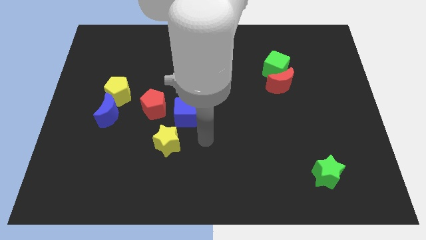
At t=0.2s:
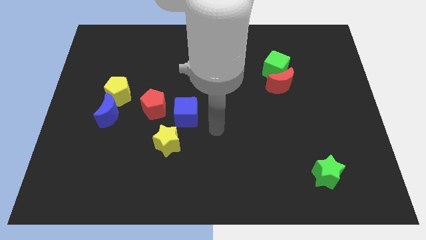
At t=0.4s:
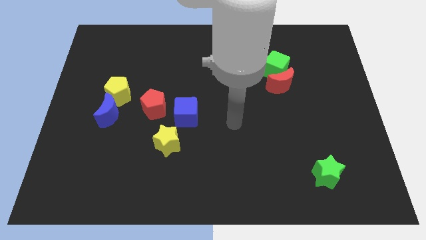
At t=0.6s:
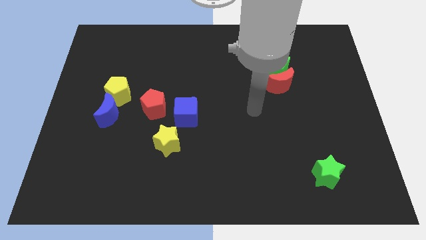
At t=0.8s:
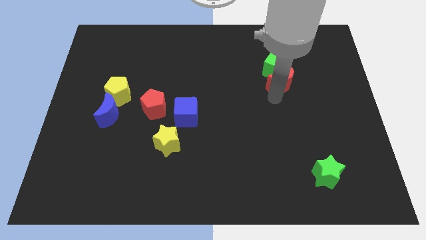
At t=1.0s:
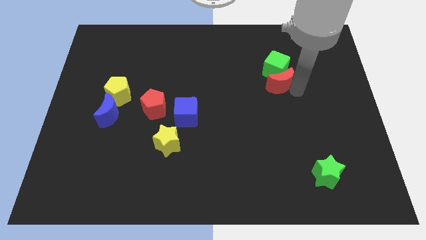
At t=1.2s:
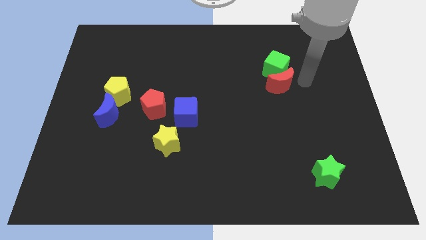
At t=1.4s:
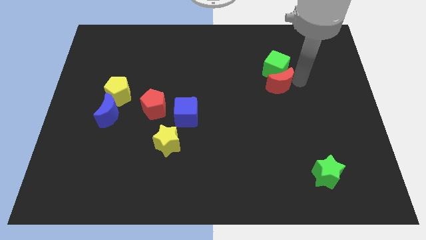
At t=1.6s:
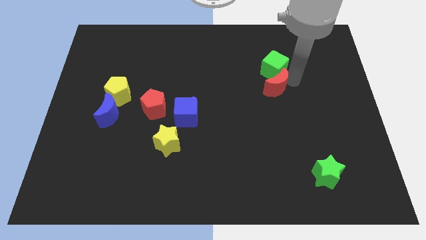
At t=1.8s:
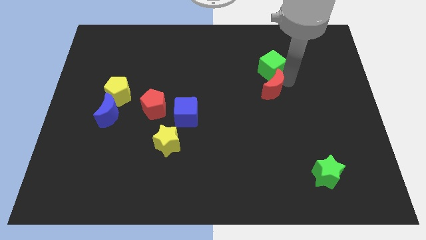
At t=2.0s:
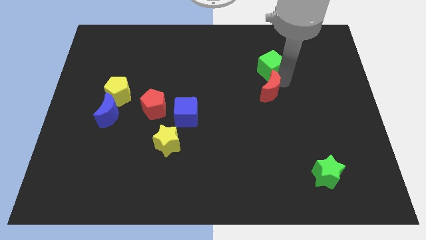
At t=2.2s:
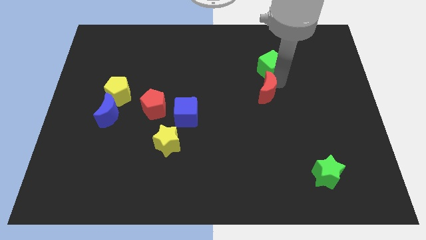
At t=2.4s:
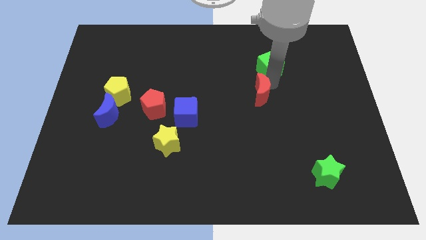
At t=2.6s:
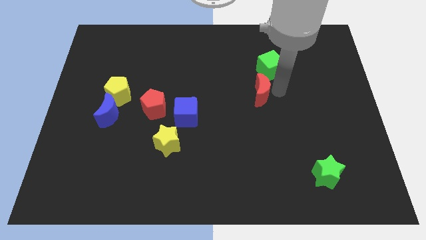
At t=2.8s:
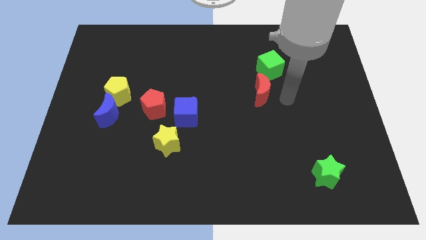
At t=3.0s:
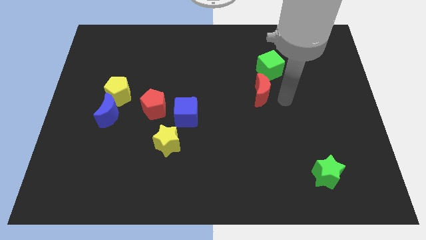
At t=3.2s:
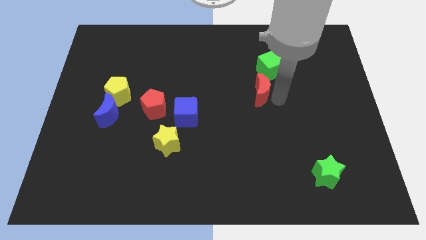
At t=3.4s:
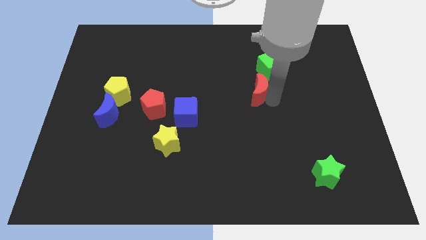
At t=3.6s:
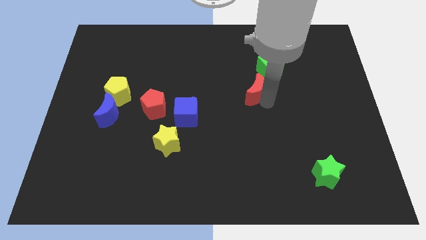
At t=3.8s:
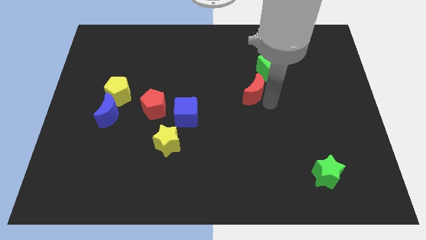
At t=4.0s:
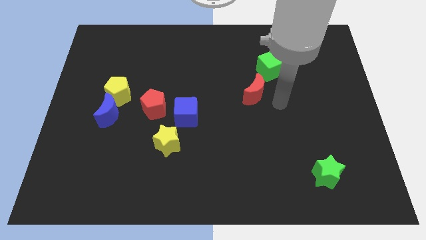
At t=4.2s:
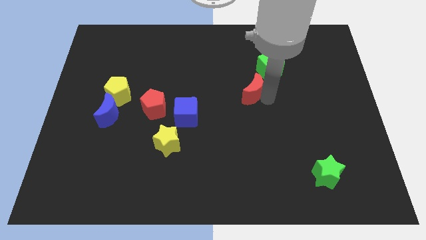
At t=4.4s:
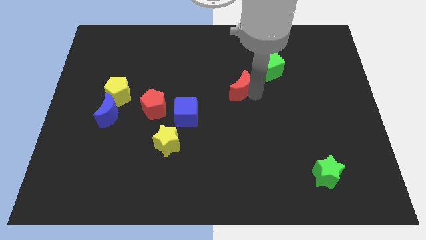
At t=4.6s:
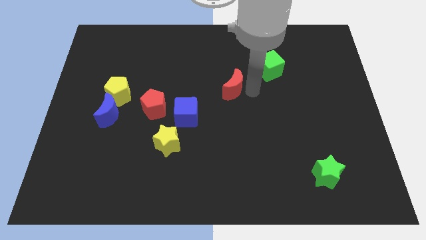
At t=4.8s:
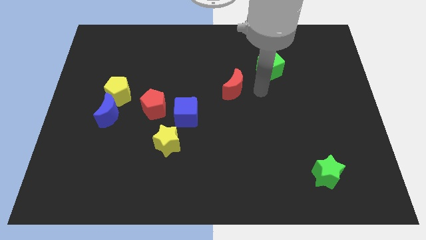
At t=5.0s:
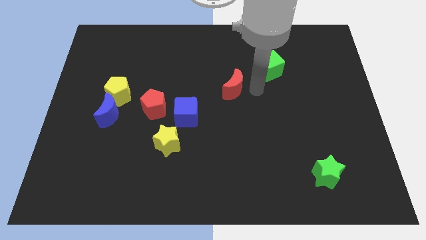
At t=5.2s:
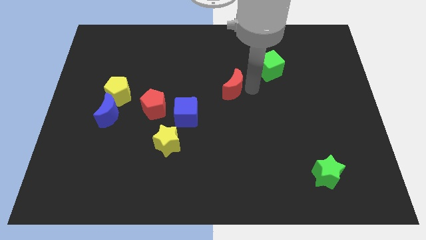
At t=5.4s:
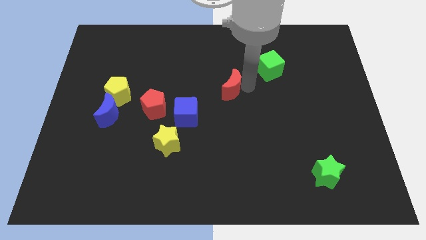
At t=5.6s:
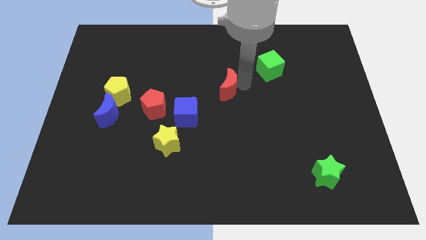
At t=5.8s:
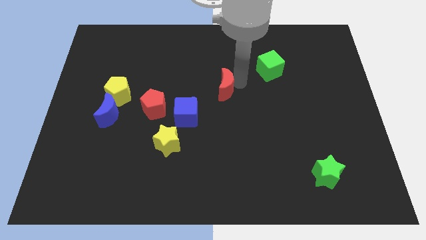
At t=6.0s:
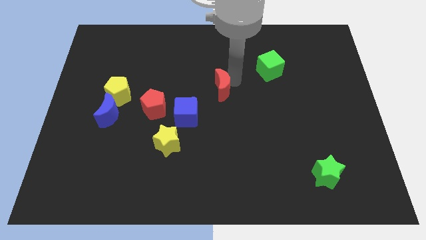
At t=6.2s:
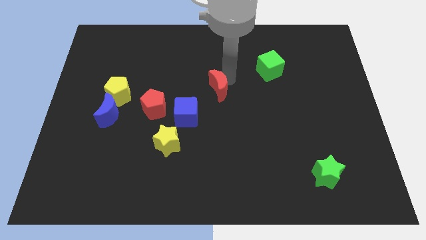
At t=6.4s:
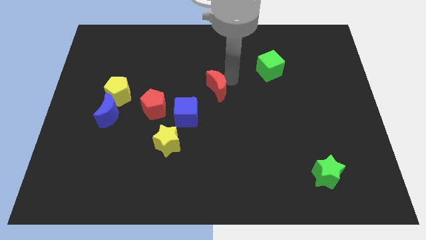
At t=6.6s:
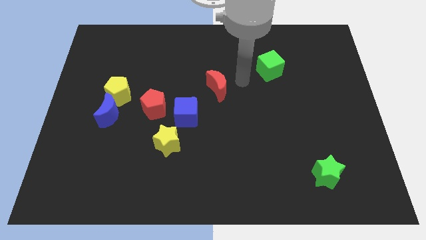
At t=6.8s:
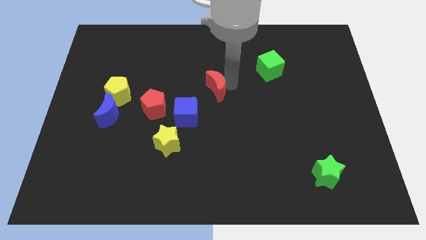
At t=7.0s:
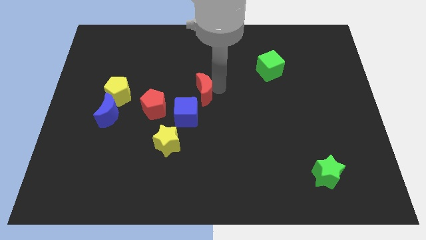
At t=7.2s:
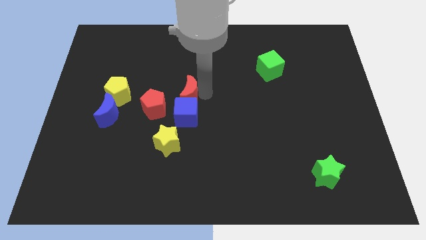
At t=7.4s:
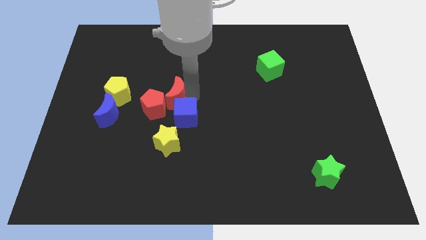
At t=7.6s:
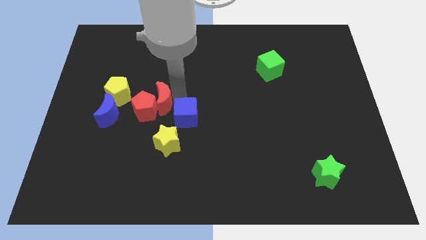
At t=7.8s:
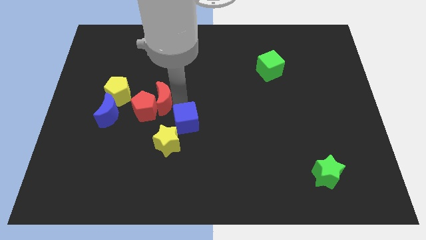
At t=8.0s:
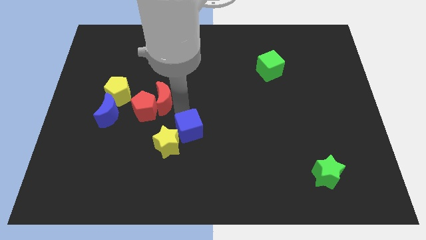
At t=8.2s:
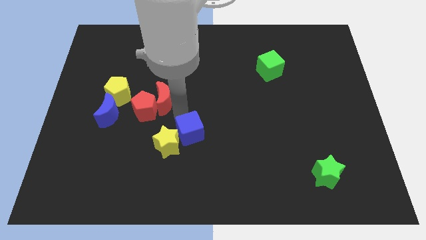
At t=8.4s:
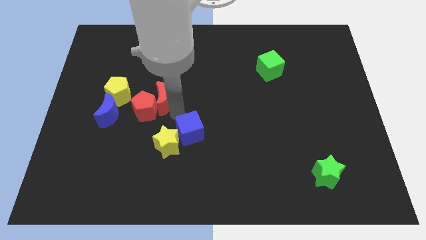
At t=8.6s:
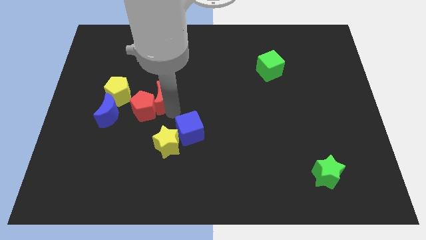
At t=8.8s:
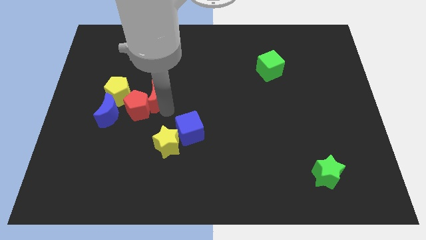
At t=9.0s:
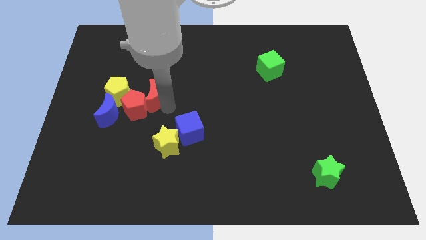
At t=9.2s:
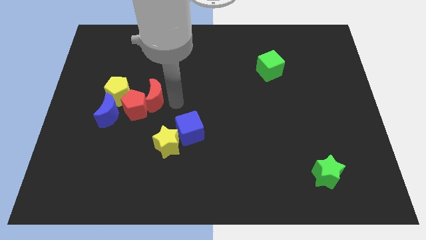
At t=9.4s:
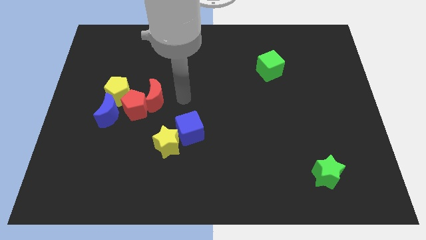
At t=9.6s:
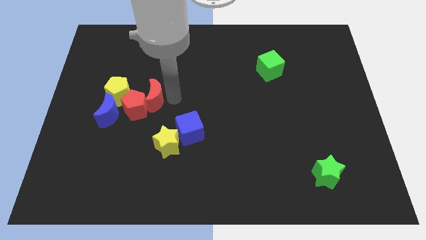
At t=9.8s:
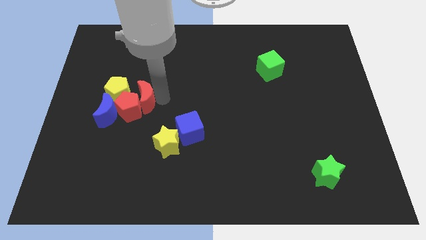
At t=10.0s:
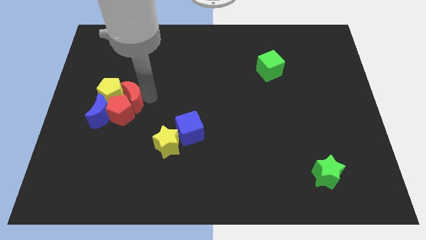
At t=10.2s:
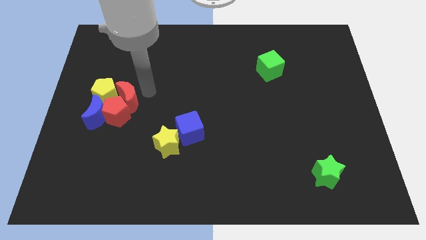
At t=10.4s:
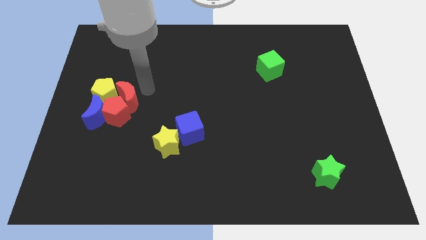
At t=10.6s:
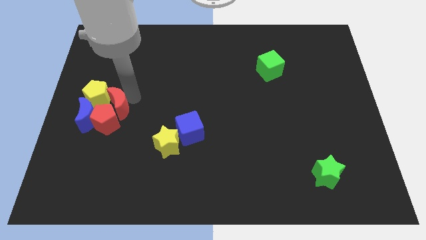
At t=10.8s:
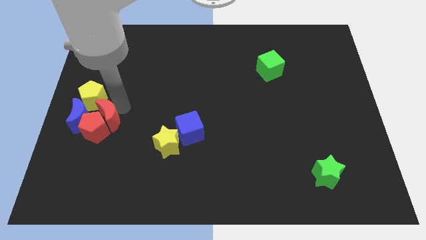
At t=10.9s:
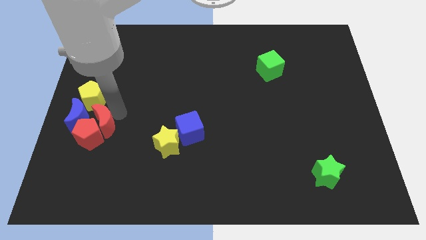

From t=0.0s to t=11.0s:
slide the red moon to the blue moon

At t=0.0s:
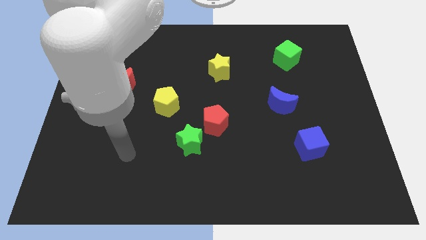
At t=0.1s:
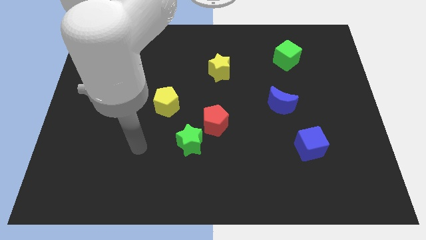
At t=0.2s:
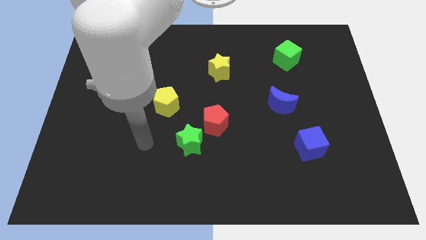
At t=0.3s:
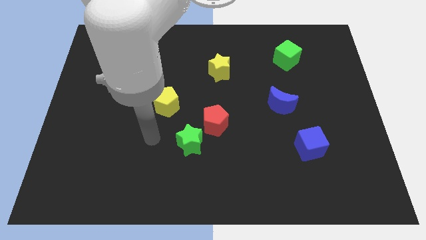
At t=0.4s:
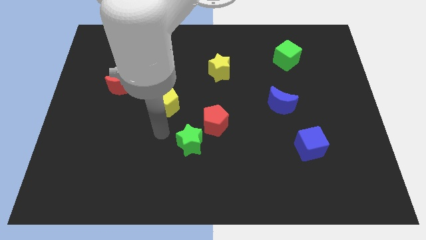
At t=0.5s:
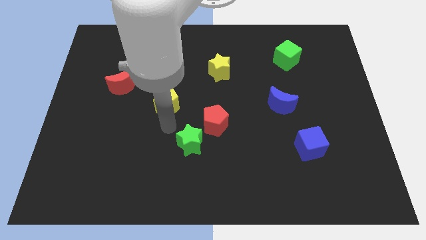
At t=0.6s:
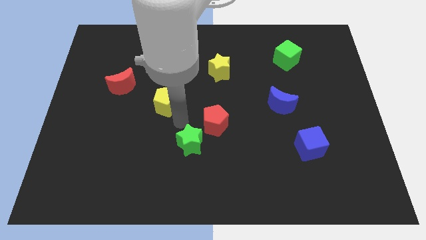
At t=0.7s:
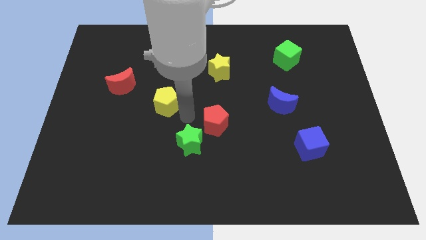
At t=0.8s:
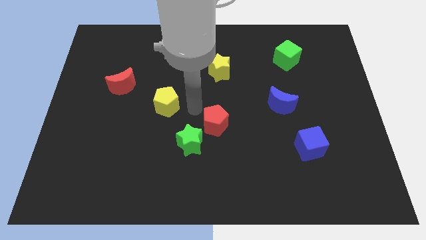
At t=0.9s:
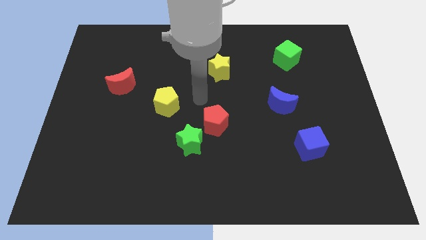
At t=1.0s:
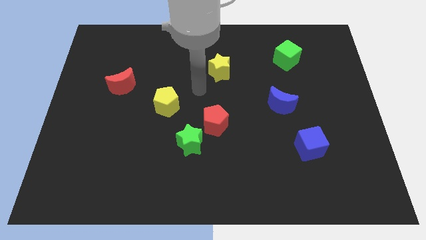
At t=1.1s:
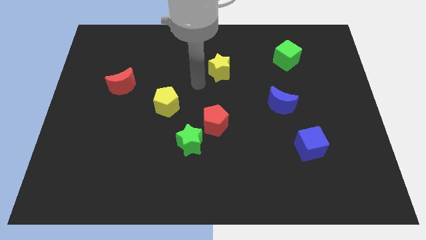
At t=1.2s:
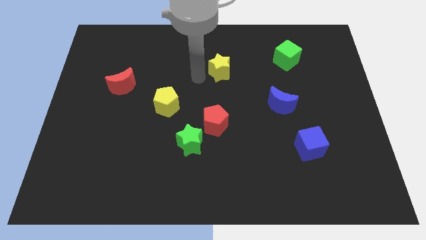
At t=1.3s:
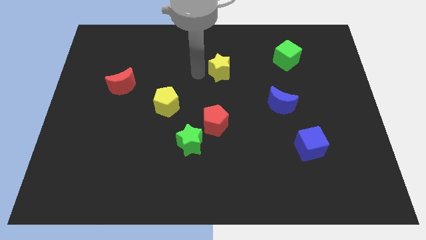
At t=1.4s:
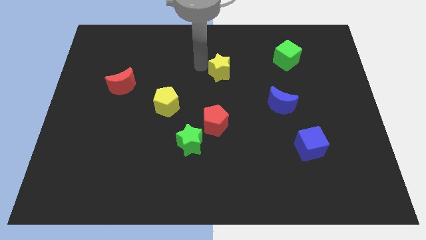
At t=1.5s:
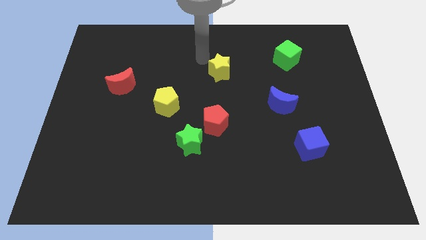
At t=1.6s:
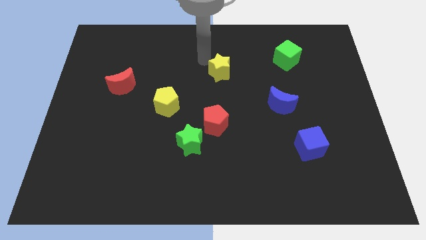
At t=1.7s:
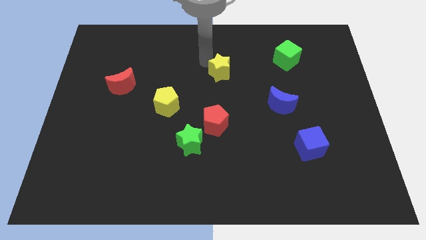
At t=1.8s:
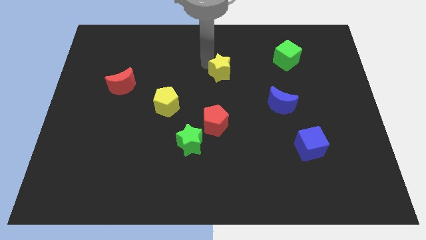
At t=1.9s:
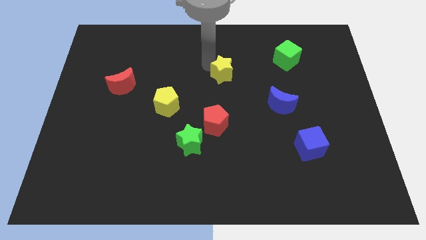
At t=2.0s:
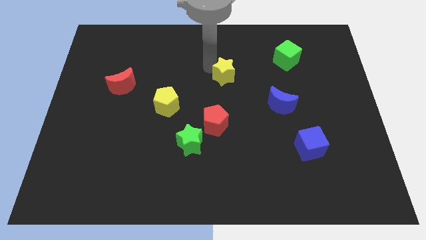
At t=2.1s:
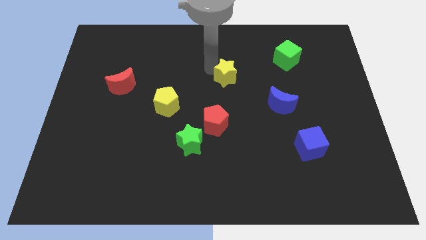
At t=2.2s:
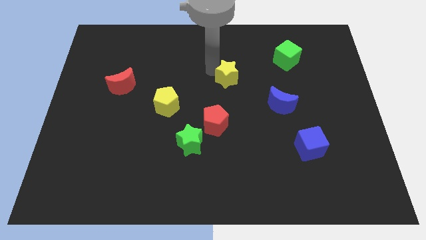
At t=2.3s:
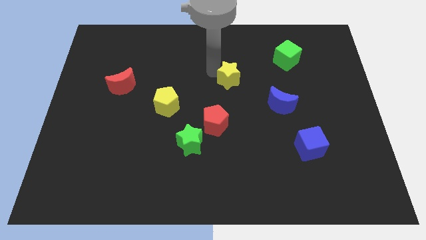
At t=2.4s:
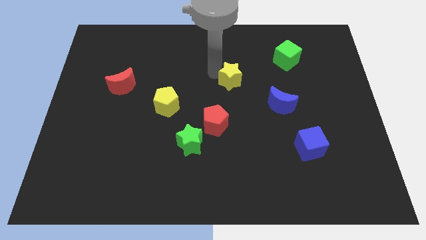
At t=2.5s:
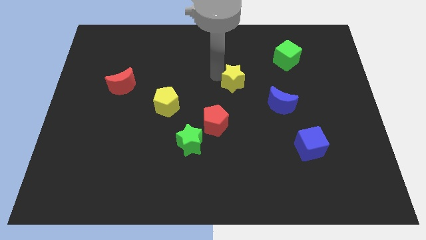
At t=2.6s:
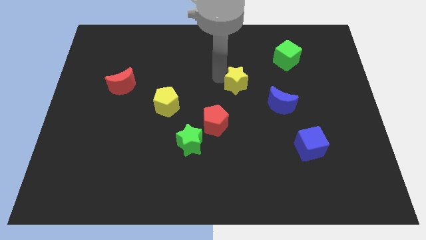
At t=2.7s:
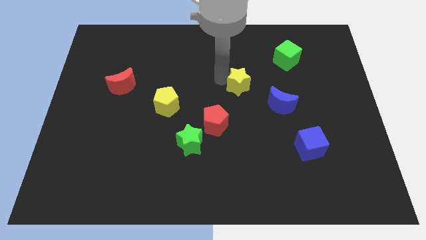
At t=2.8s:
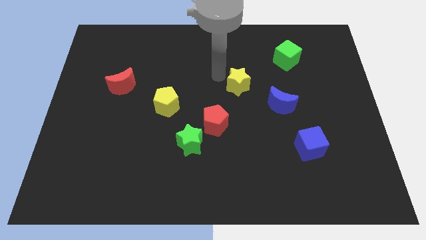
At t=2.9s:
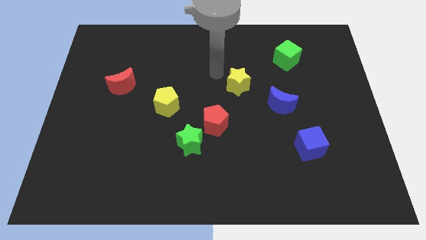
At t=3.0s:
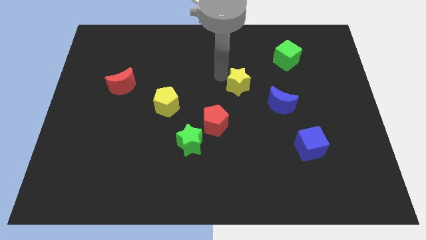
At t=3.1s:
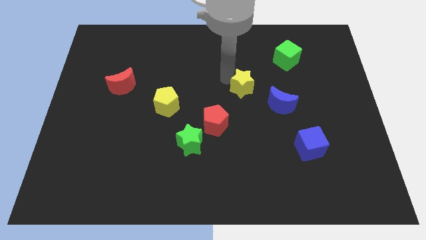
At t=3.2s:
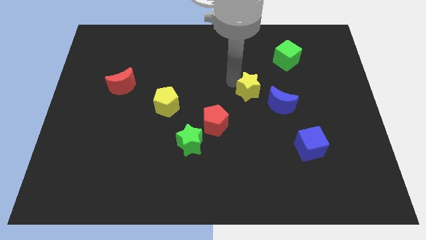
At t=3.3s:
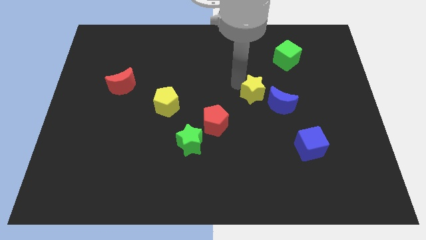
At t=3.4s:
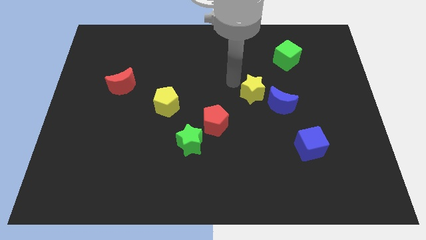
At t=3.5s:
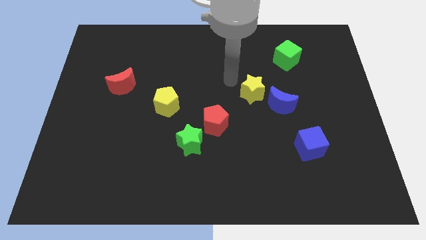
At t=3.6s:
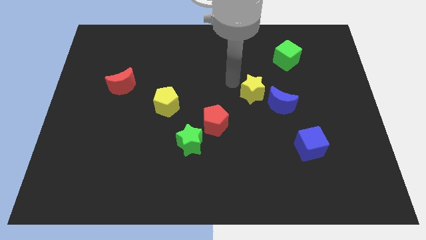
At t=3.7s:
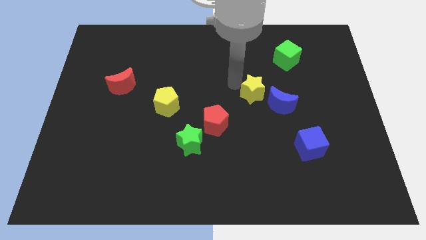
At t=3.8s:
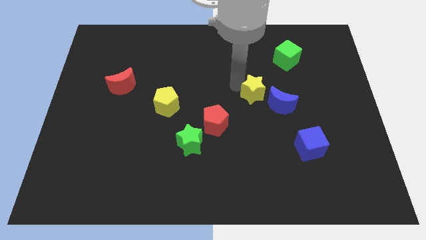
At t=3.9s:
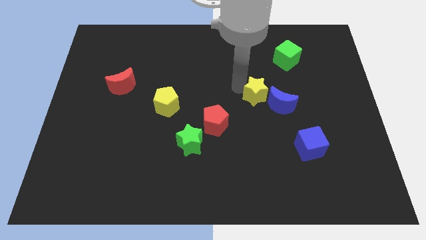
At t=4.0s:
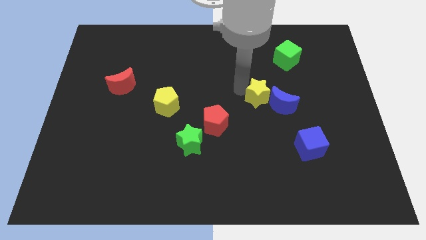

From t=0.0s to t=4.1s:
move the yellow star to the blue moon
